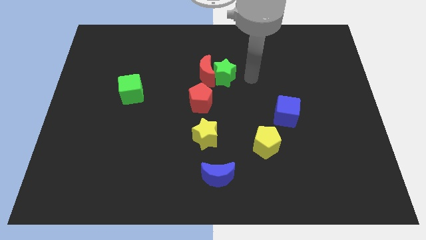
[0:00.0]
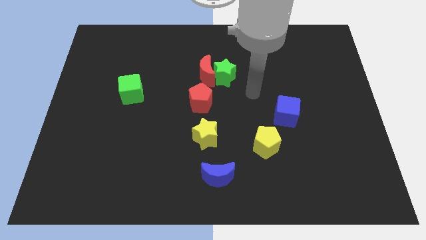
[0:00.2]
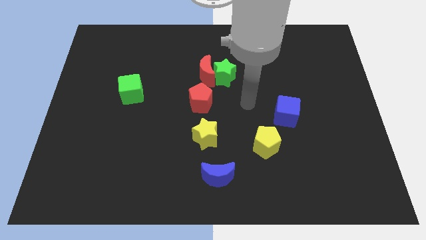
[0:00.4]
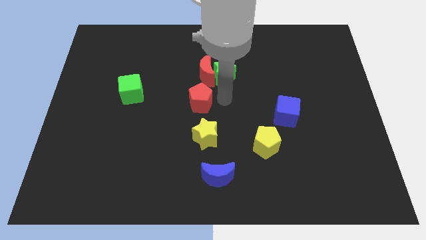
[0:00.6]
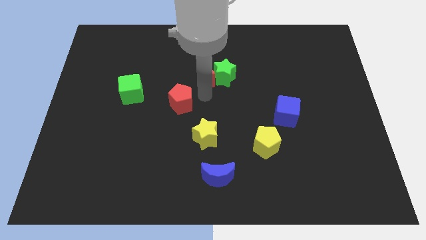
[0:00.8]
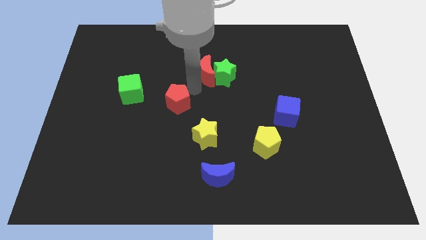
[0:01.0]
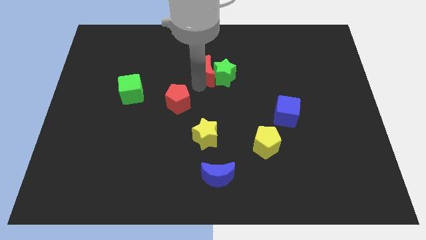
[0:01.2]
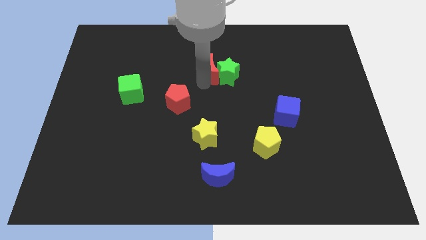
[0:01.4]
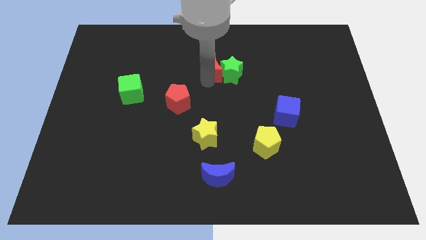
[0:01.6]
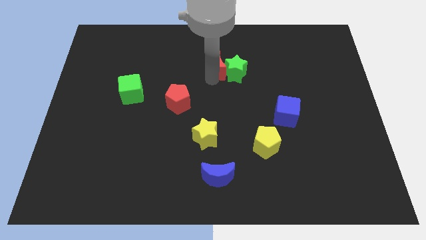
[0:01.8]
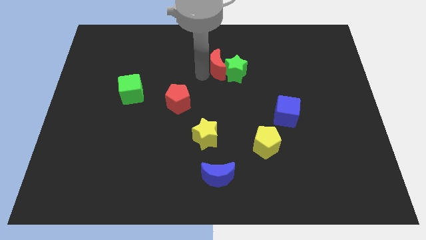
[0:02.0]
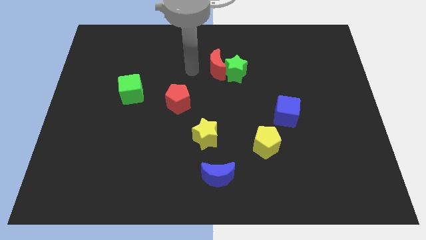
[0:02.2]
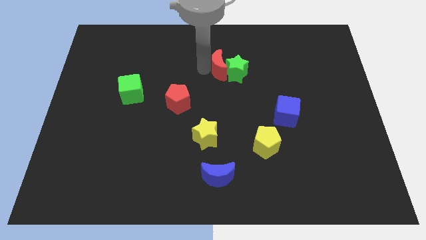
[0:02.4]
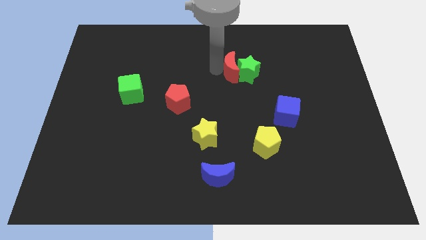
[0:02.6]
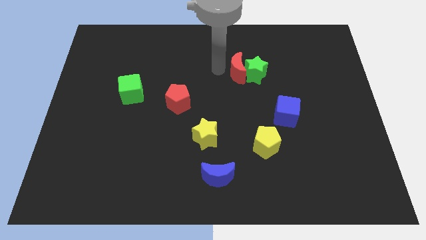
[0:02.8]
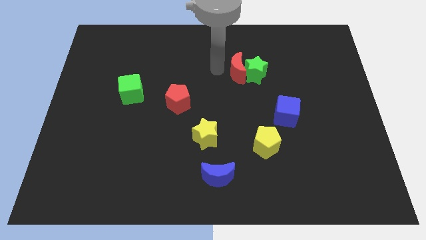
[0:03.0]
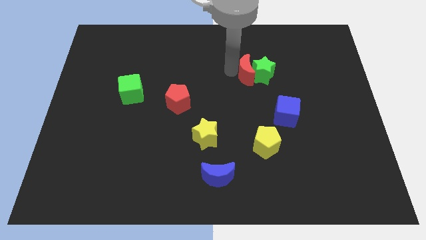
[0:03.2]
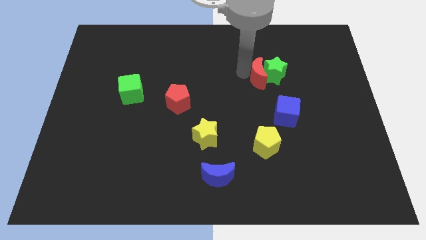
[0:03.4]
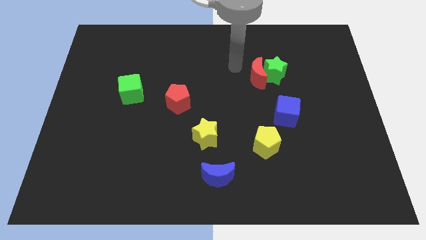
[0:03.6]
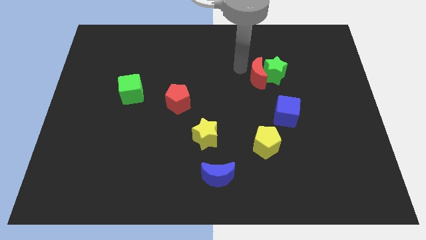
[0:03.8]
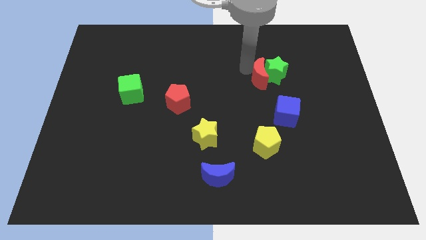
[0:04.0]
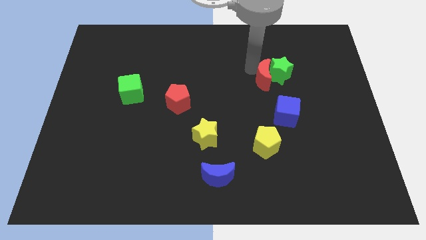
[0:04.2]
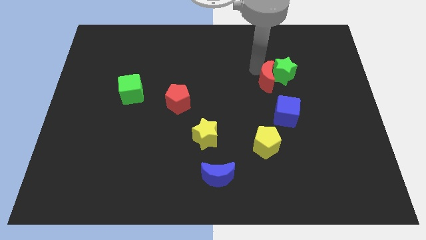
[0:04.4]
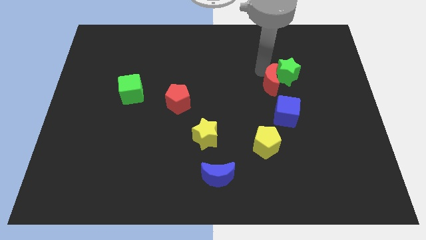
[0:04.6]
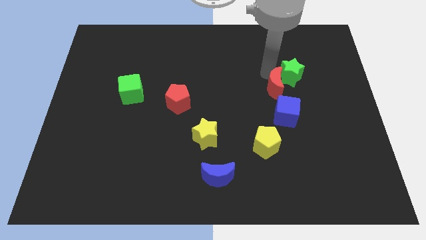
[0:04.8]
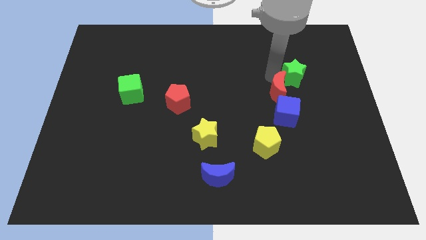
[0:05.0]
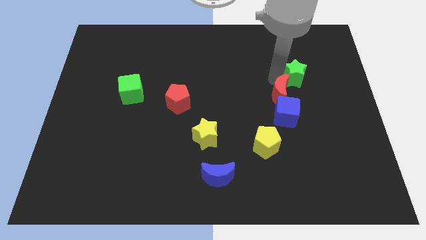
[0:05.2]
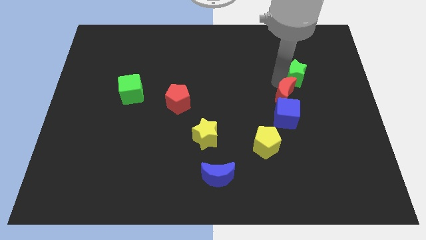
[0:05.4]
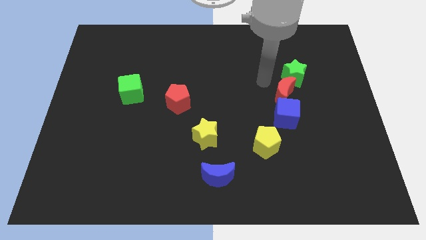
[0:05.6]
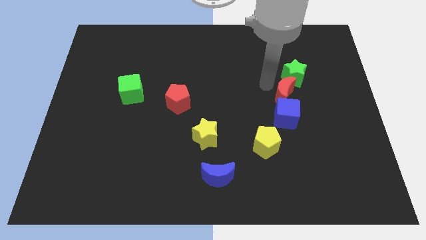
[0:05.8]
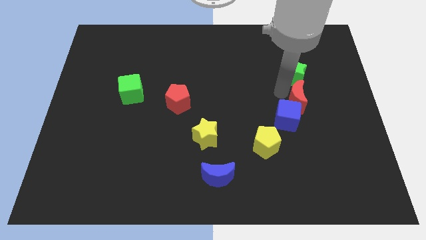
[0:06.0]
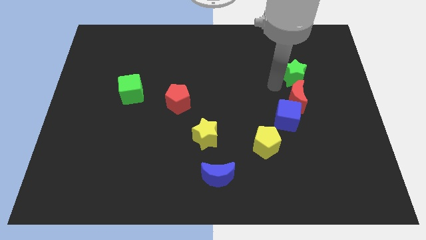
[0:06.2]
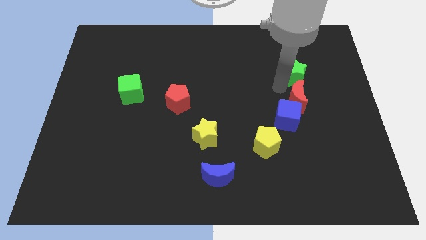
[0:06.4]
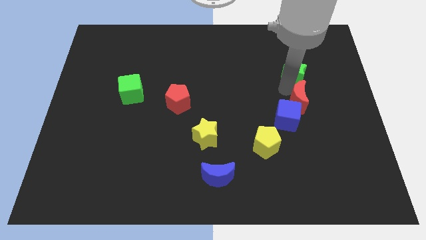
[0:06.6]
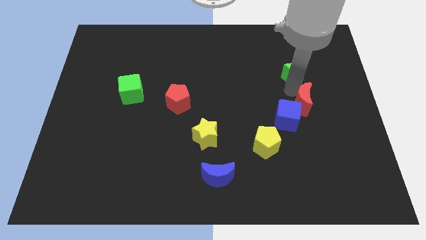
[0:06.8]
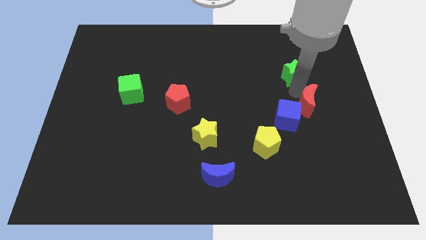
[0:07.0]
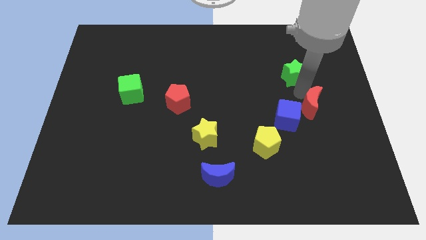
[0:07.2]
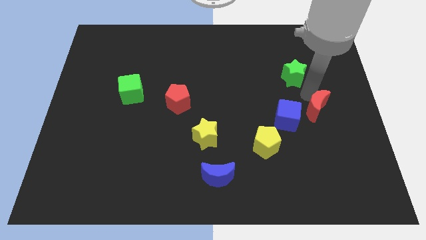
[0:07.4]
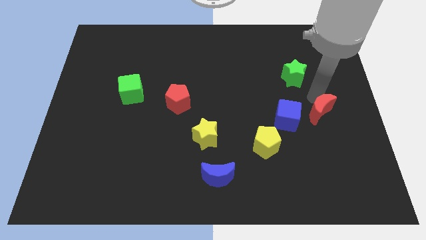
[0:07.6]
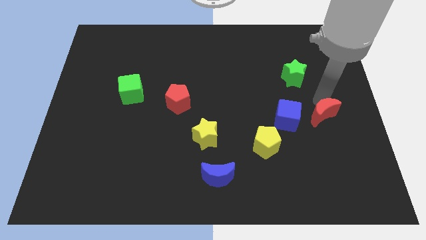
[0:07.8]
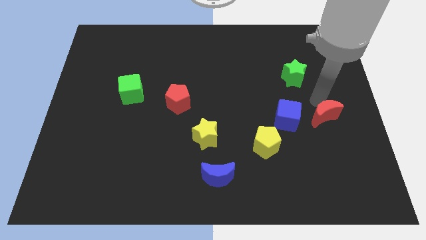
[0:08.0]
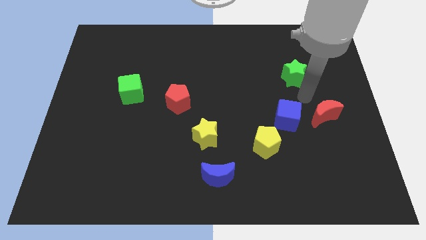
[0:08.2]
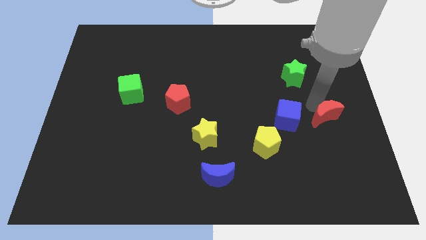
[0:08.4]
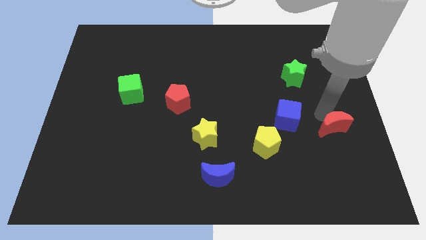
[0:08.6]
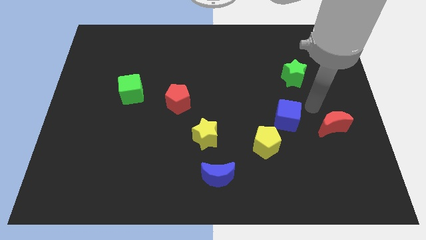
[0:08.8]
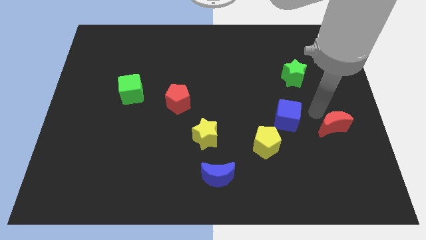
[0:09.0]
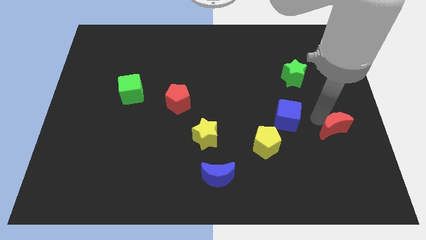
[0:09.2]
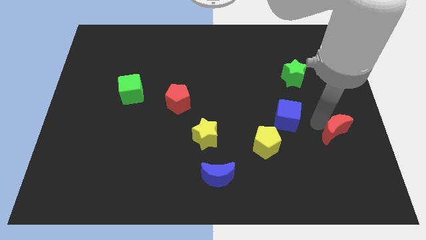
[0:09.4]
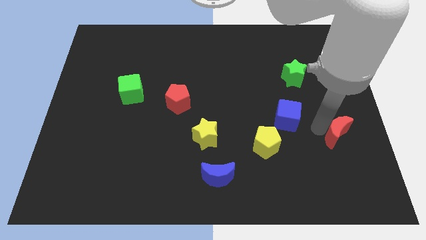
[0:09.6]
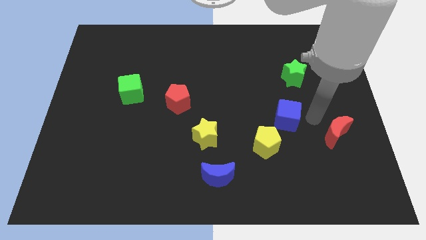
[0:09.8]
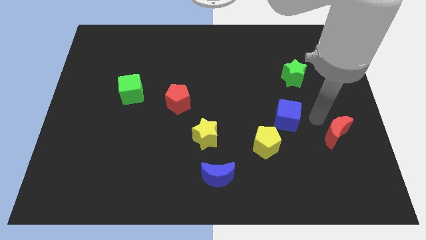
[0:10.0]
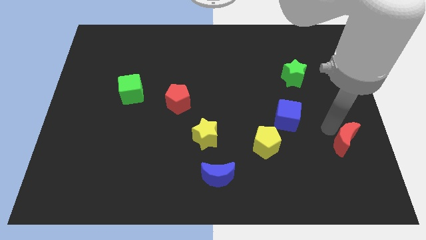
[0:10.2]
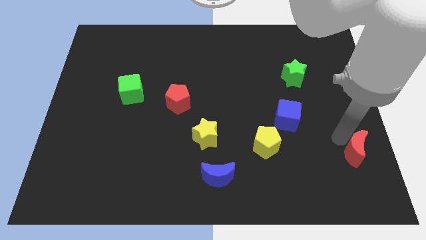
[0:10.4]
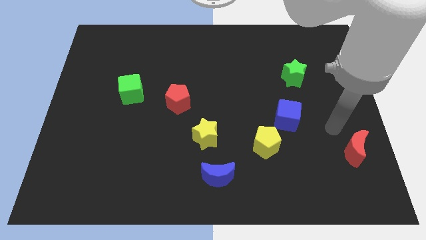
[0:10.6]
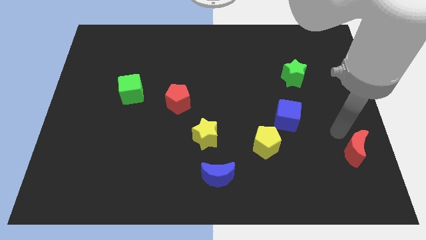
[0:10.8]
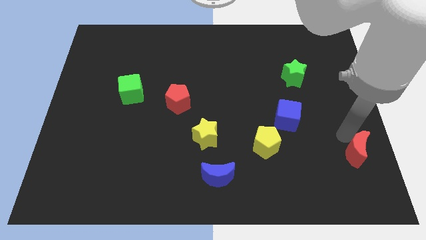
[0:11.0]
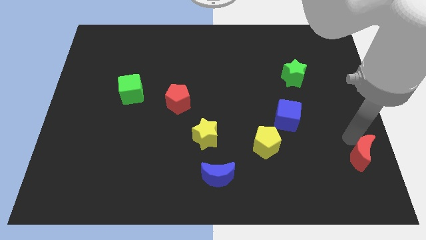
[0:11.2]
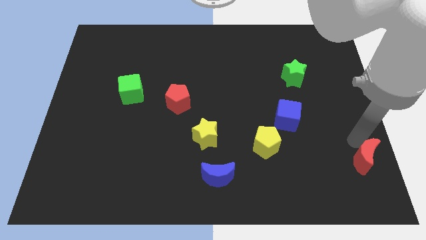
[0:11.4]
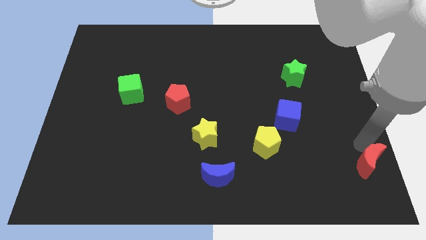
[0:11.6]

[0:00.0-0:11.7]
move the red moon to the lower right corner
